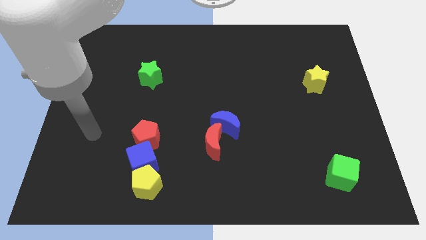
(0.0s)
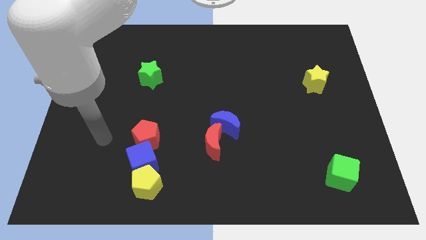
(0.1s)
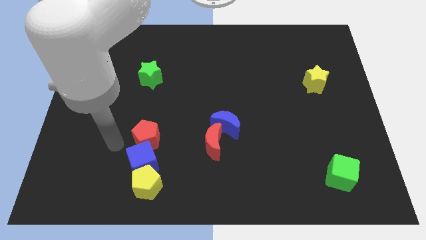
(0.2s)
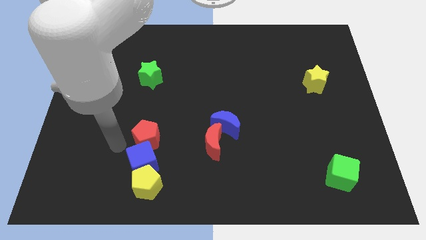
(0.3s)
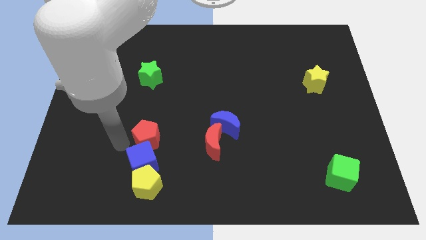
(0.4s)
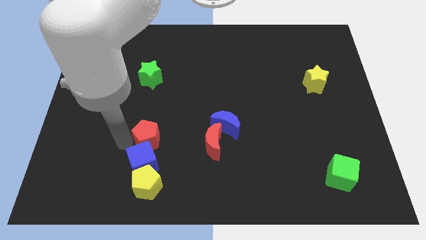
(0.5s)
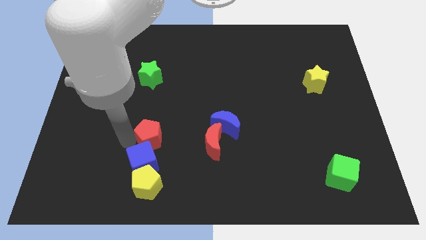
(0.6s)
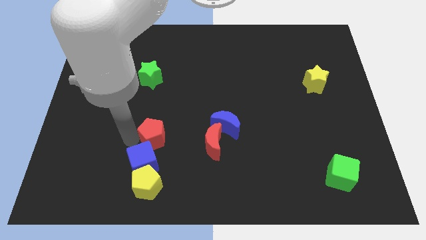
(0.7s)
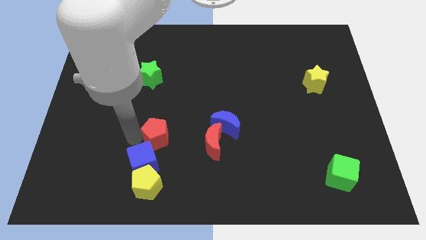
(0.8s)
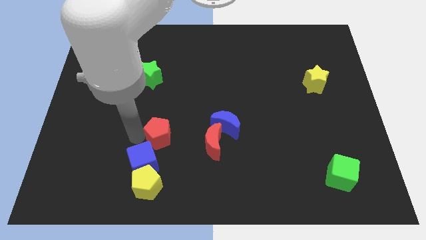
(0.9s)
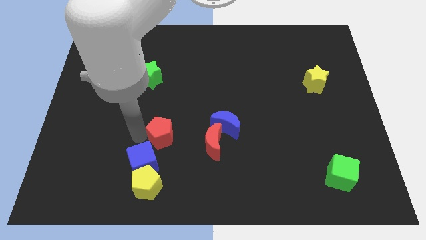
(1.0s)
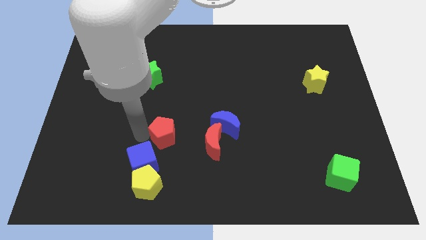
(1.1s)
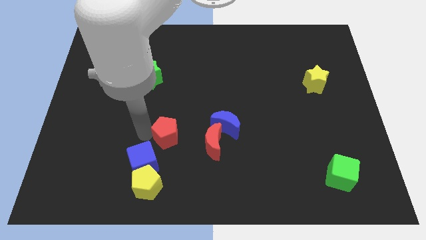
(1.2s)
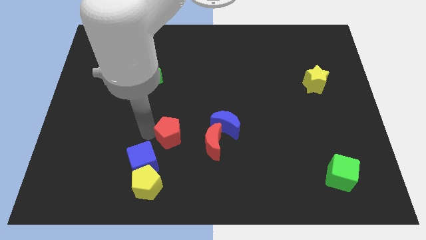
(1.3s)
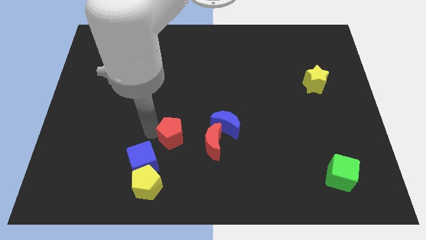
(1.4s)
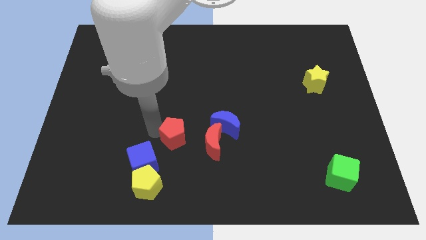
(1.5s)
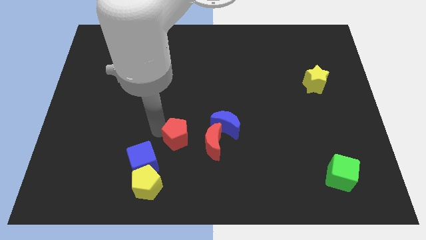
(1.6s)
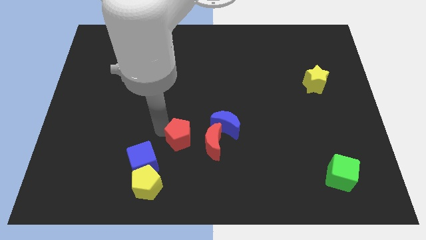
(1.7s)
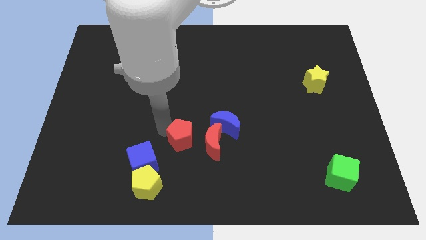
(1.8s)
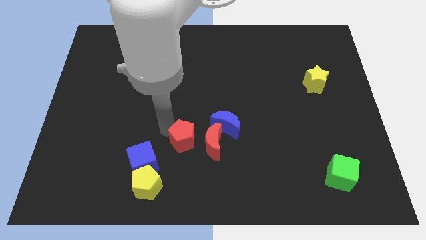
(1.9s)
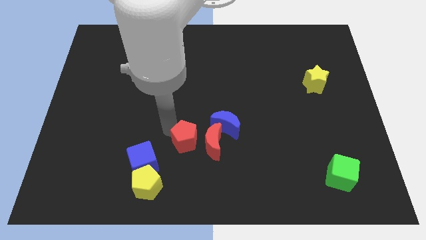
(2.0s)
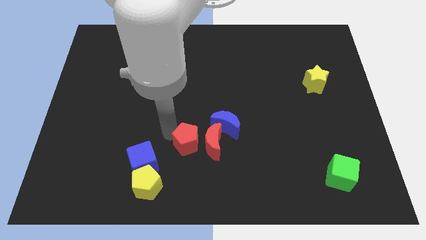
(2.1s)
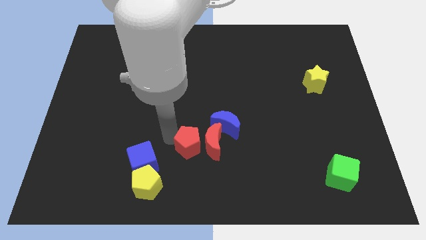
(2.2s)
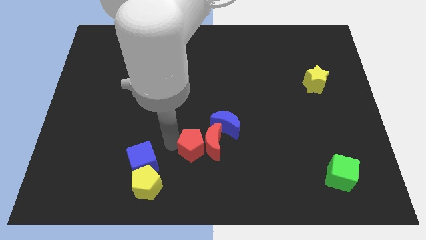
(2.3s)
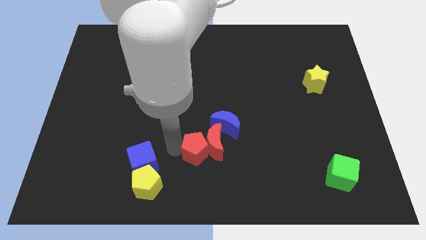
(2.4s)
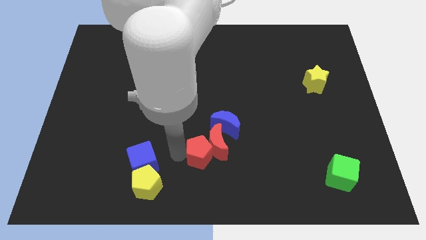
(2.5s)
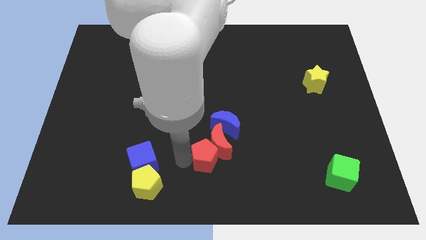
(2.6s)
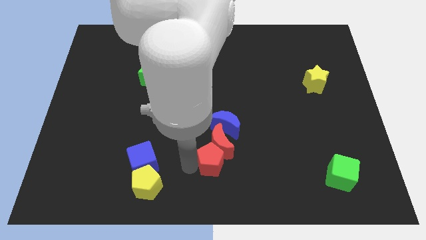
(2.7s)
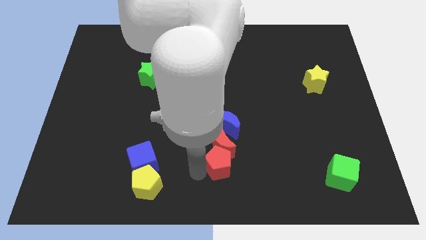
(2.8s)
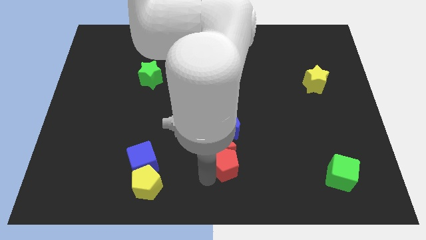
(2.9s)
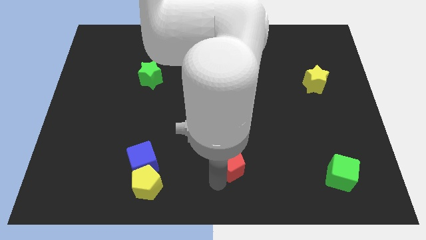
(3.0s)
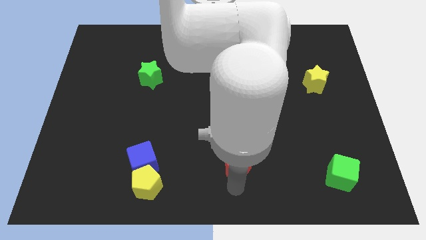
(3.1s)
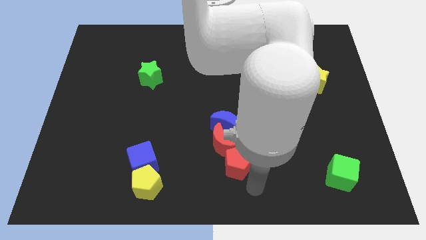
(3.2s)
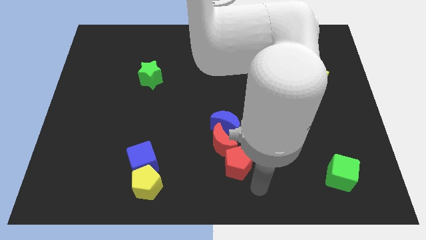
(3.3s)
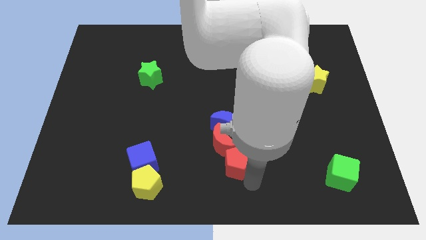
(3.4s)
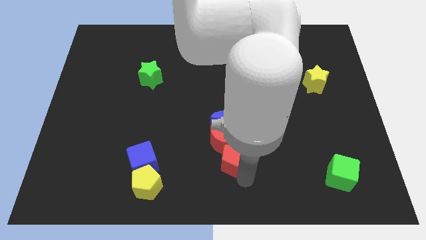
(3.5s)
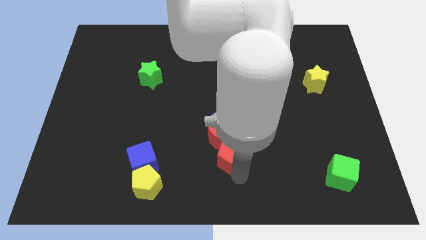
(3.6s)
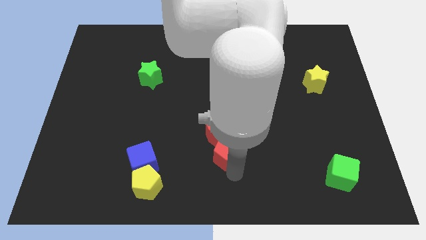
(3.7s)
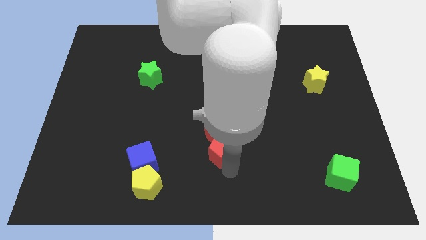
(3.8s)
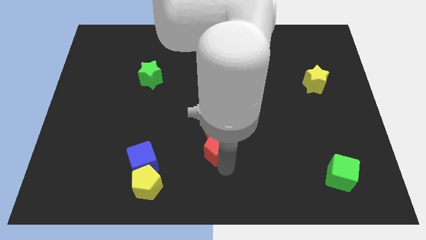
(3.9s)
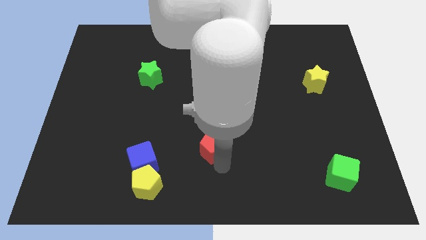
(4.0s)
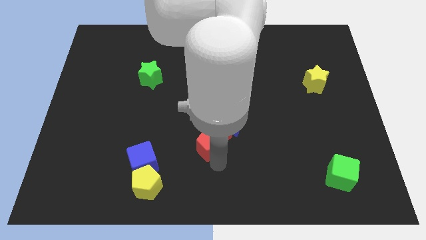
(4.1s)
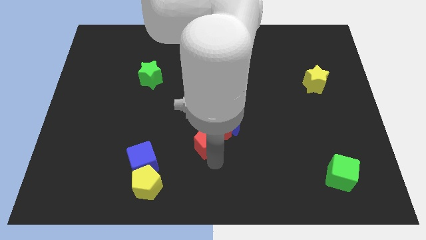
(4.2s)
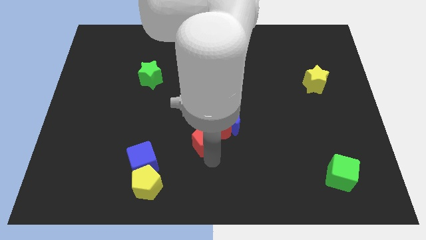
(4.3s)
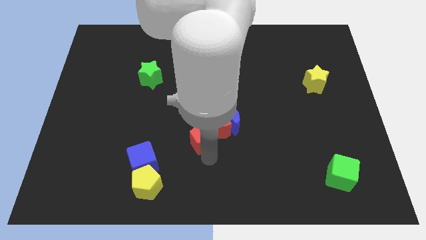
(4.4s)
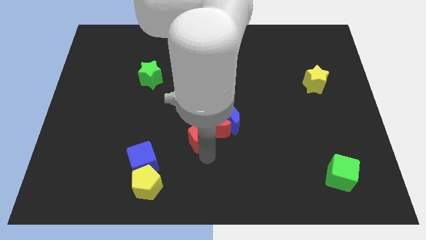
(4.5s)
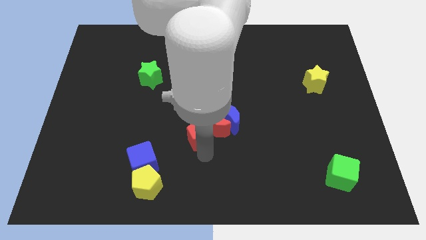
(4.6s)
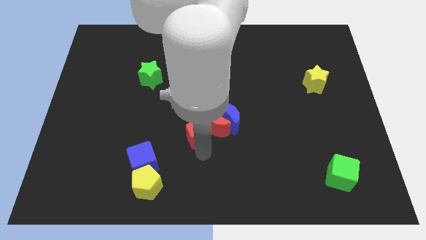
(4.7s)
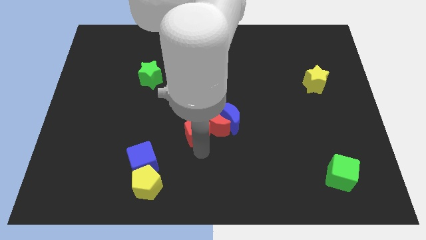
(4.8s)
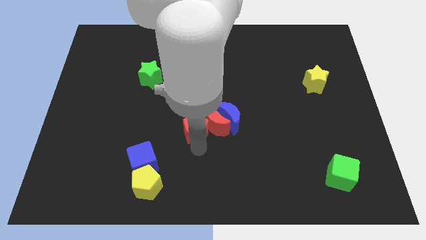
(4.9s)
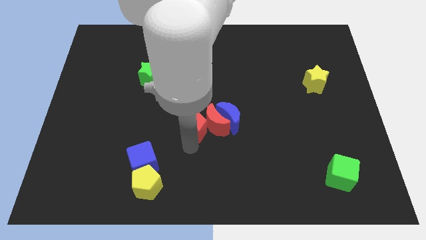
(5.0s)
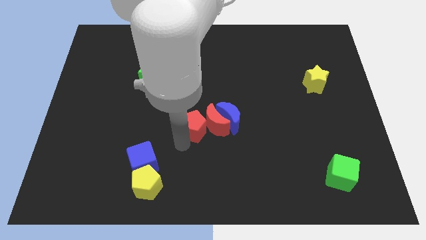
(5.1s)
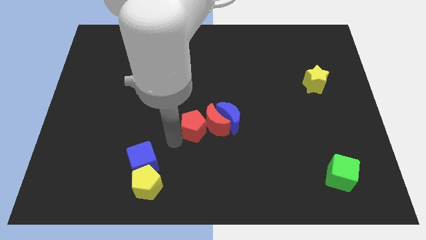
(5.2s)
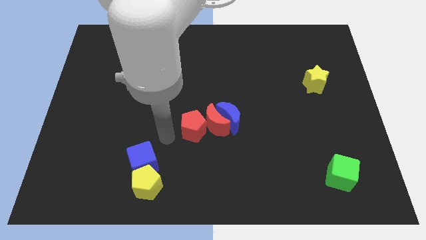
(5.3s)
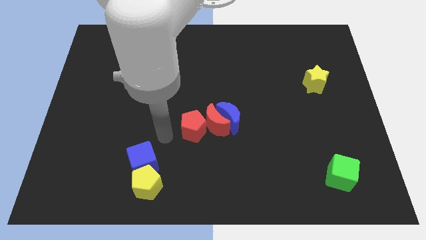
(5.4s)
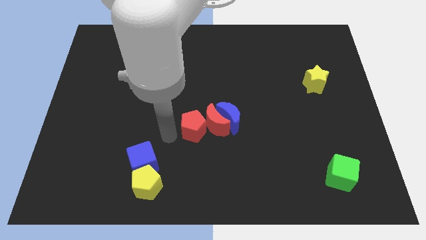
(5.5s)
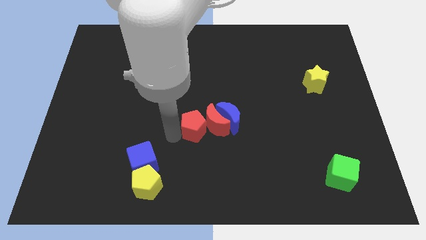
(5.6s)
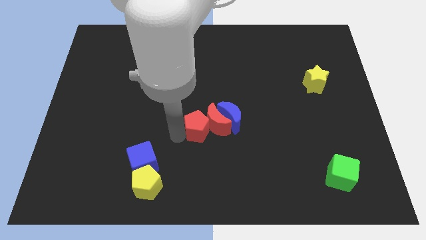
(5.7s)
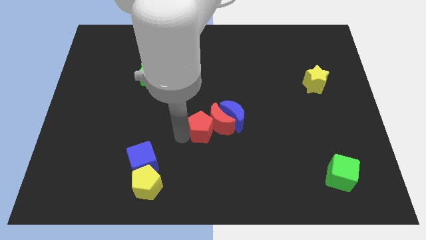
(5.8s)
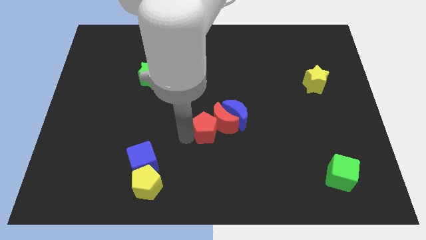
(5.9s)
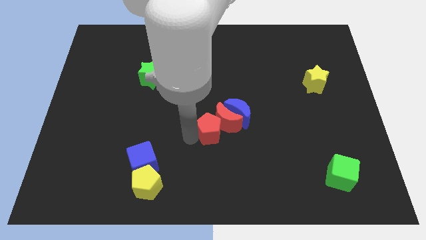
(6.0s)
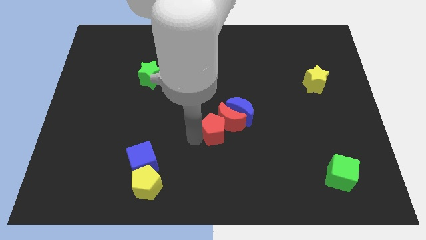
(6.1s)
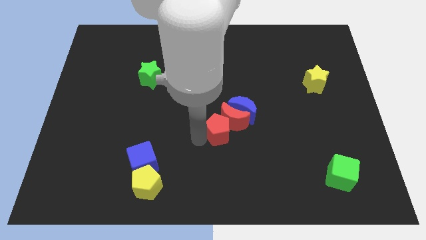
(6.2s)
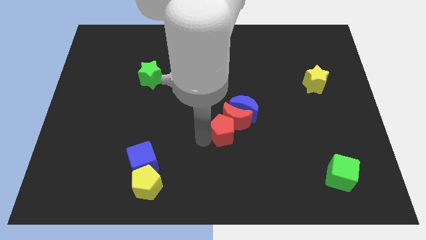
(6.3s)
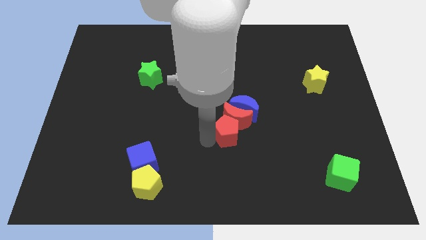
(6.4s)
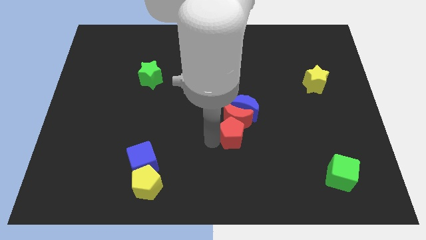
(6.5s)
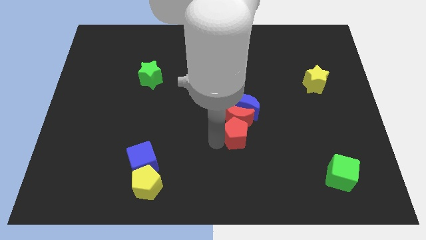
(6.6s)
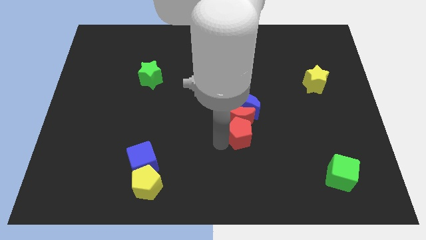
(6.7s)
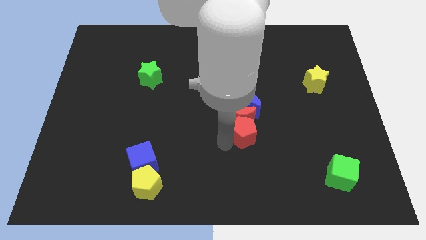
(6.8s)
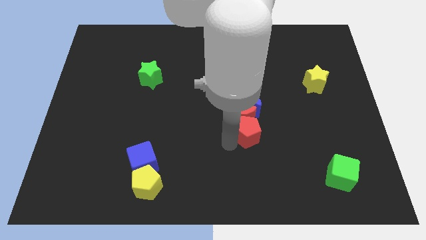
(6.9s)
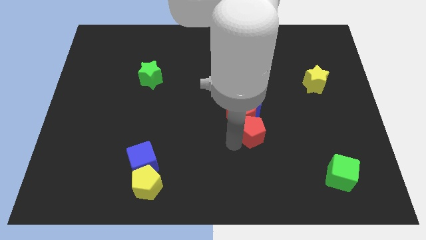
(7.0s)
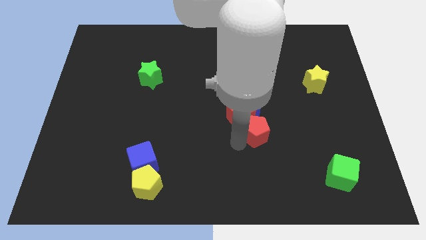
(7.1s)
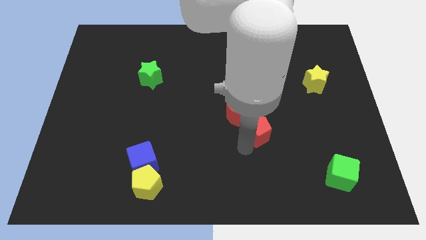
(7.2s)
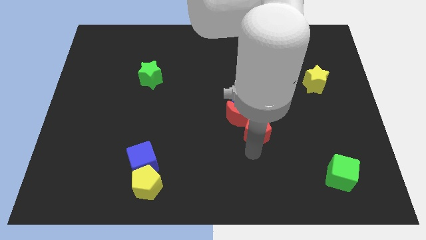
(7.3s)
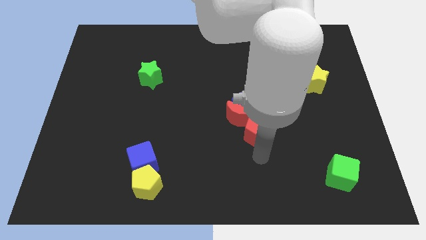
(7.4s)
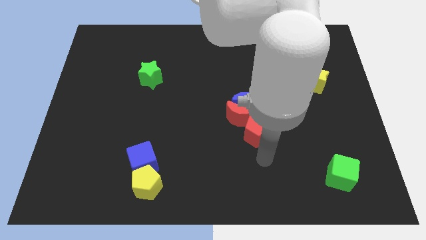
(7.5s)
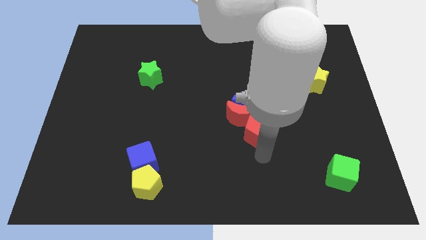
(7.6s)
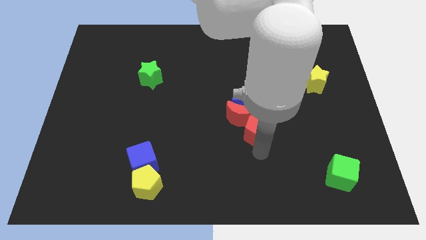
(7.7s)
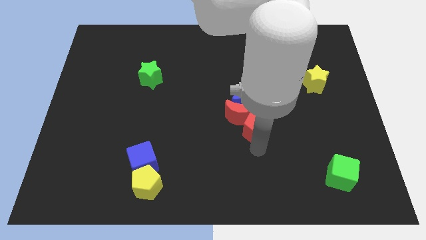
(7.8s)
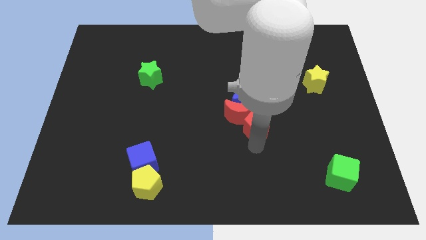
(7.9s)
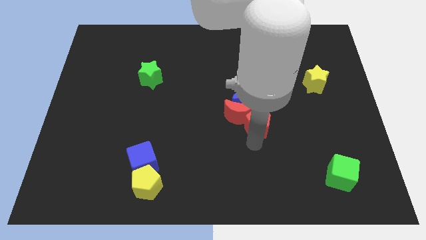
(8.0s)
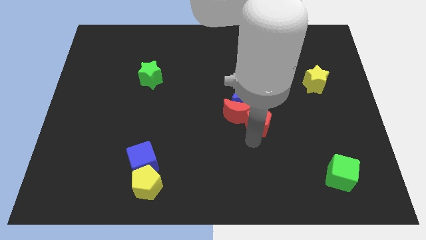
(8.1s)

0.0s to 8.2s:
put the red pentagon towards the blue moon
